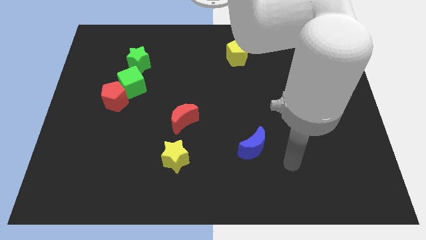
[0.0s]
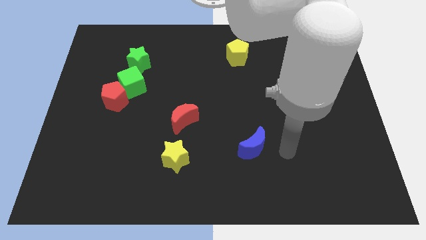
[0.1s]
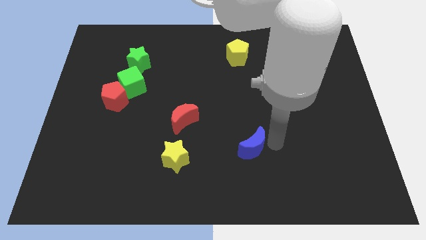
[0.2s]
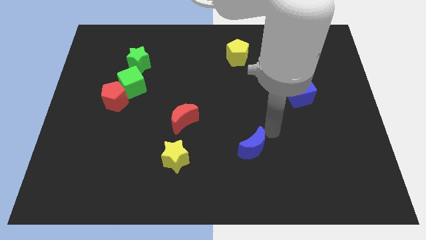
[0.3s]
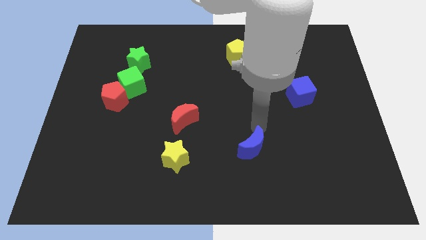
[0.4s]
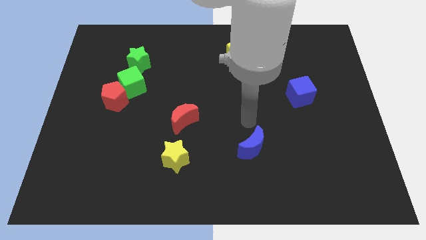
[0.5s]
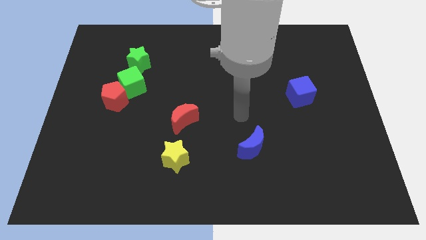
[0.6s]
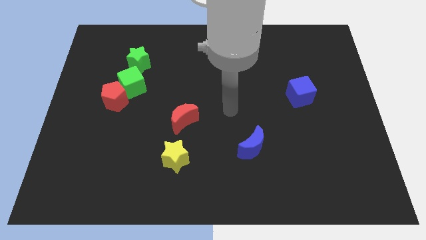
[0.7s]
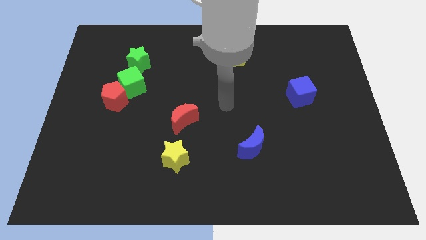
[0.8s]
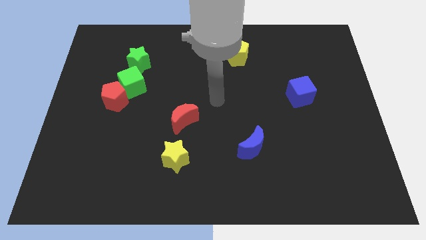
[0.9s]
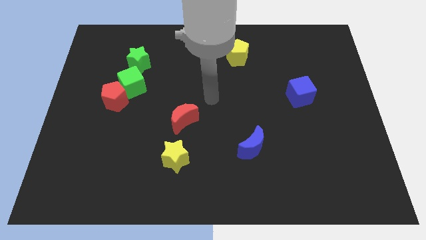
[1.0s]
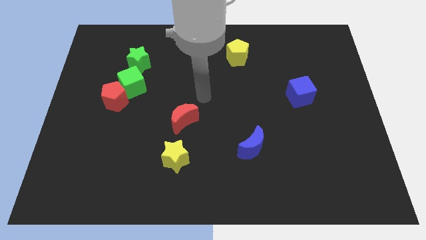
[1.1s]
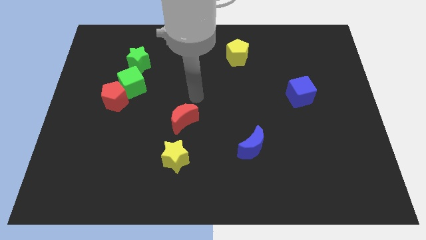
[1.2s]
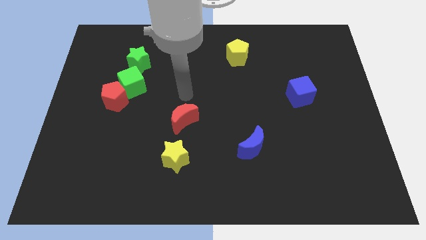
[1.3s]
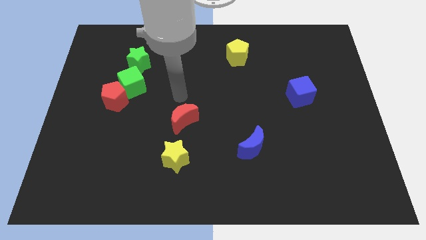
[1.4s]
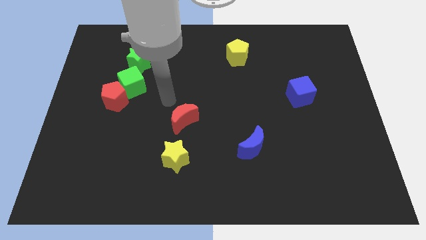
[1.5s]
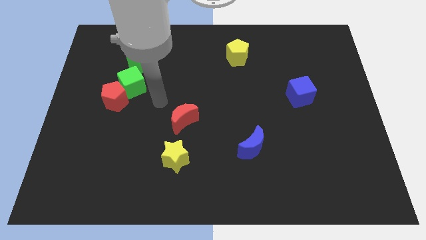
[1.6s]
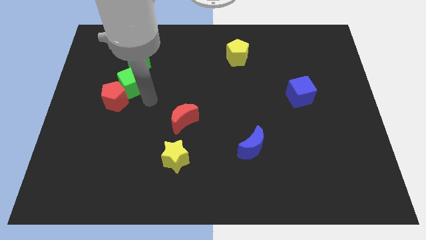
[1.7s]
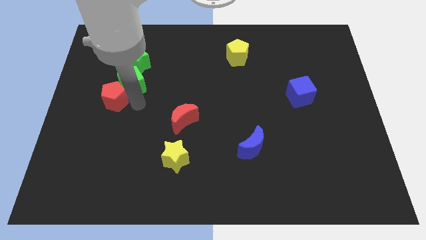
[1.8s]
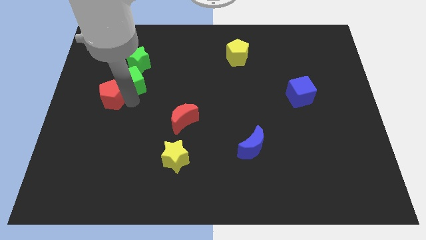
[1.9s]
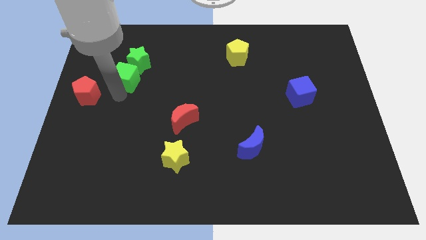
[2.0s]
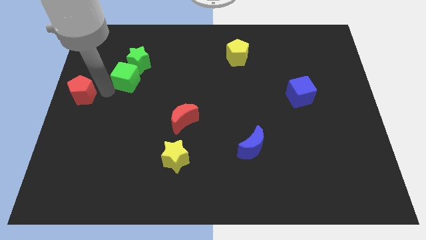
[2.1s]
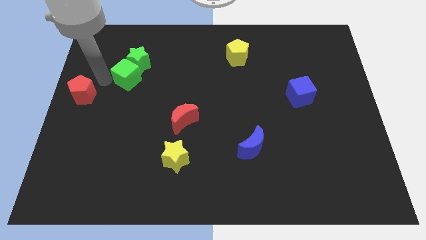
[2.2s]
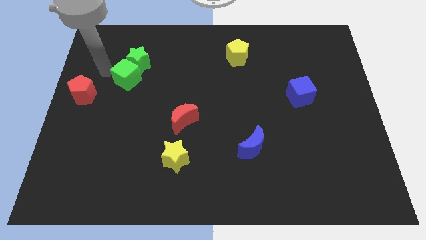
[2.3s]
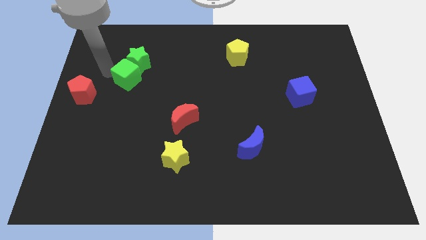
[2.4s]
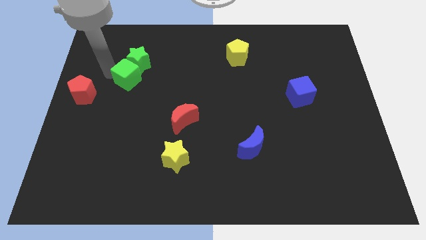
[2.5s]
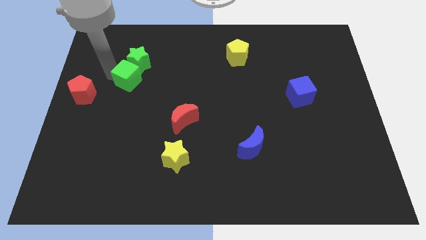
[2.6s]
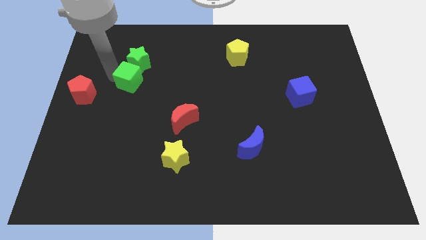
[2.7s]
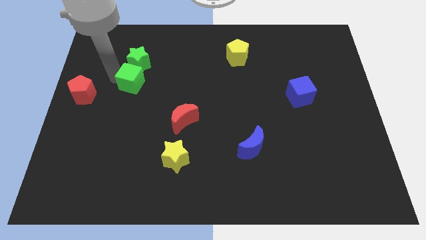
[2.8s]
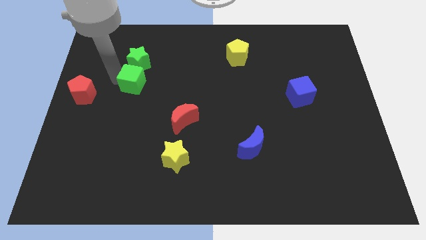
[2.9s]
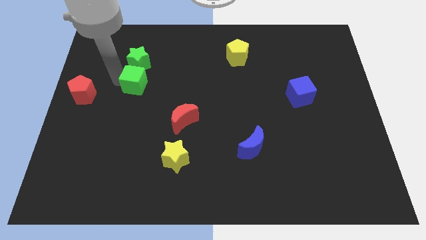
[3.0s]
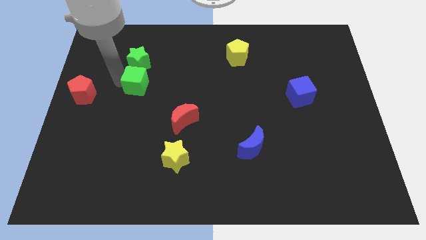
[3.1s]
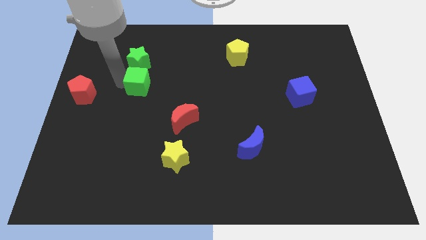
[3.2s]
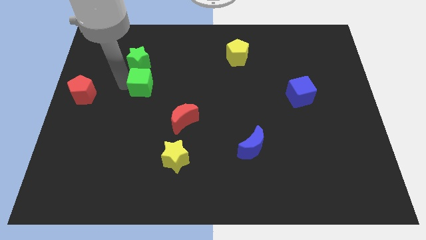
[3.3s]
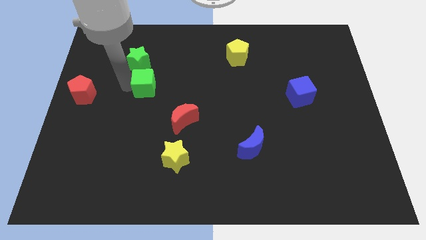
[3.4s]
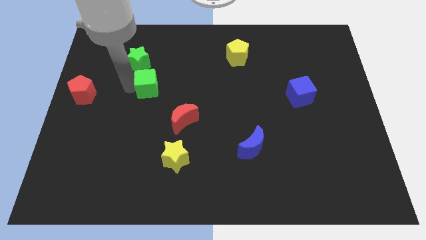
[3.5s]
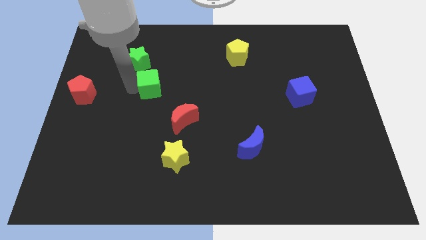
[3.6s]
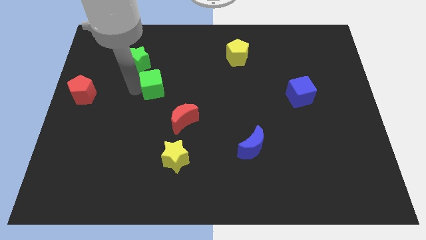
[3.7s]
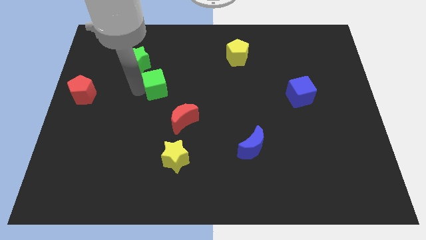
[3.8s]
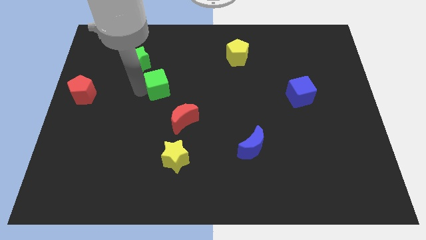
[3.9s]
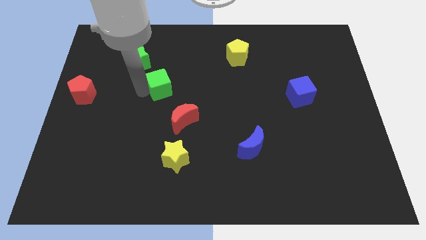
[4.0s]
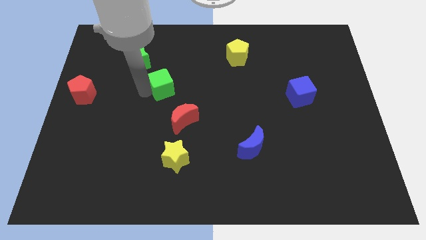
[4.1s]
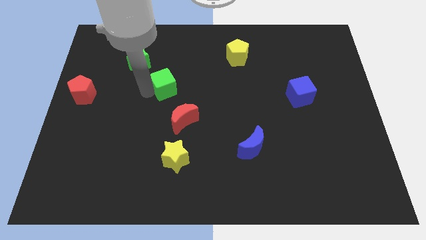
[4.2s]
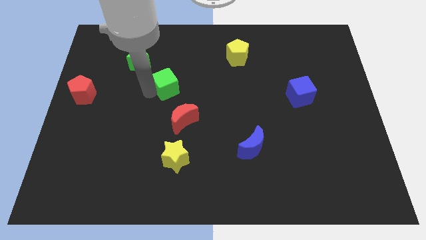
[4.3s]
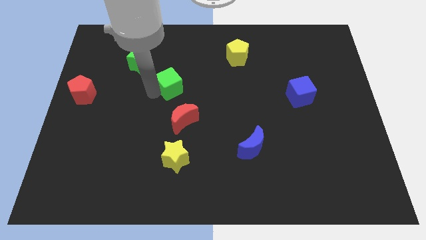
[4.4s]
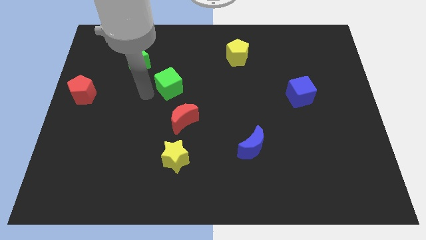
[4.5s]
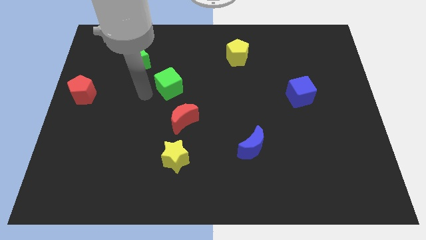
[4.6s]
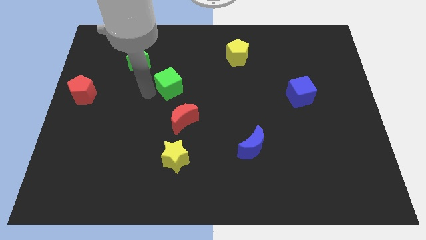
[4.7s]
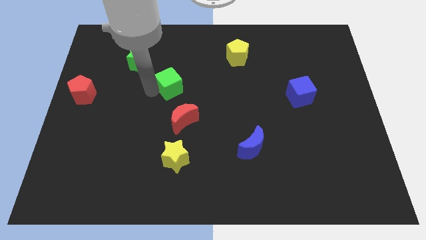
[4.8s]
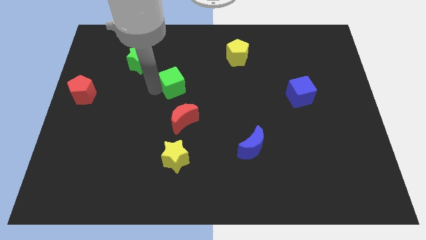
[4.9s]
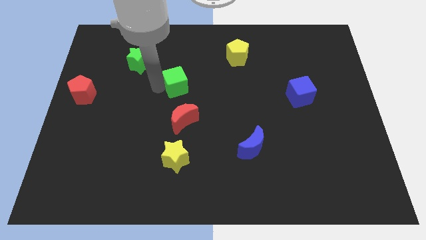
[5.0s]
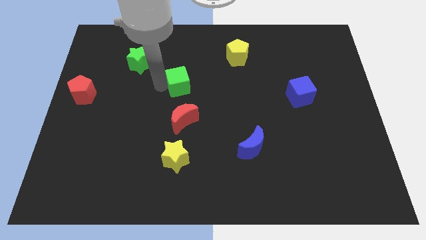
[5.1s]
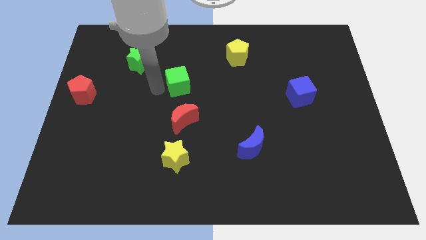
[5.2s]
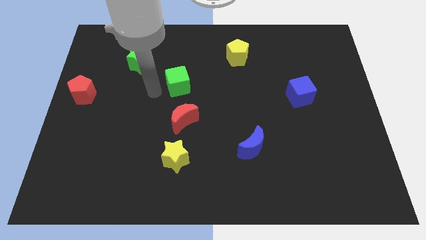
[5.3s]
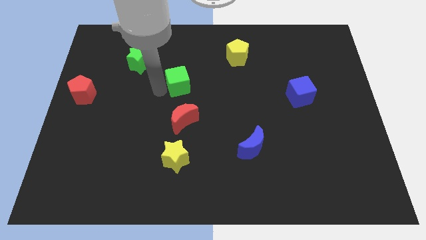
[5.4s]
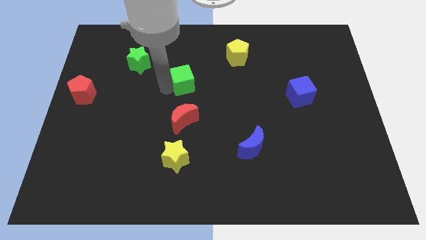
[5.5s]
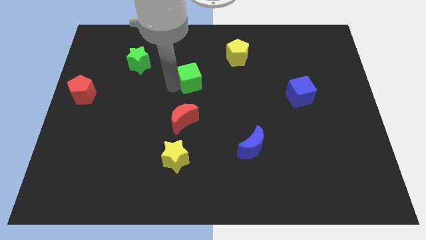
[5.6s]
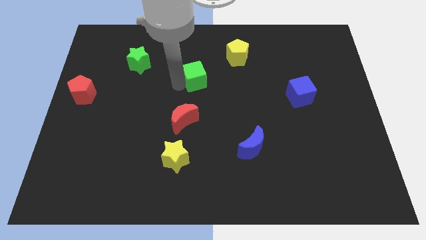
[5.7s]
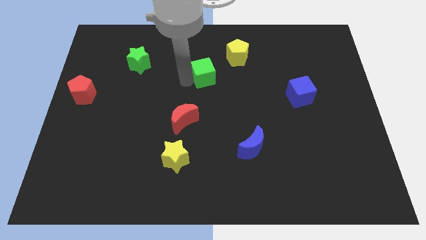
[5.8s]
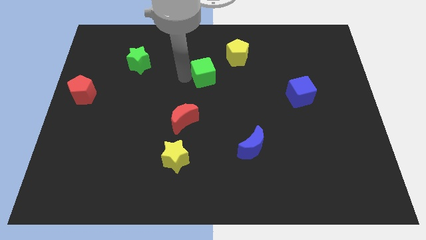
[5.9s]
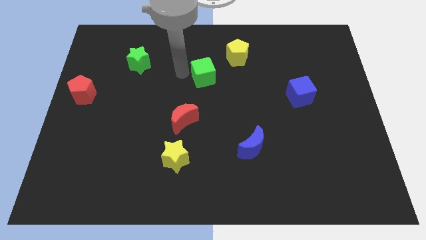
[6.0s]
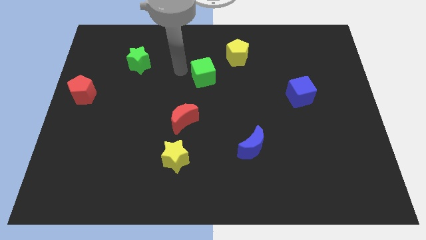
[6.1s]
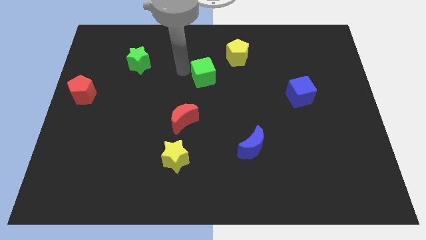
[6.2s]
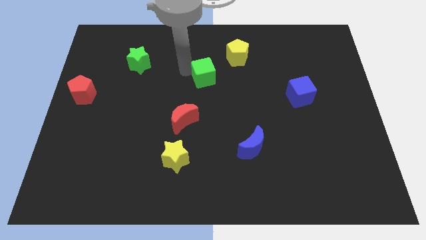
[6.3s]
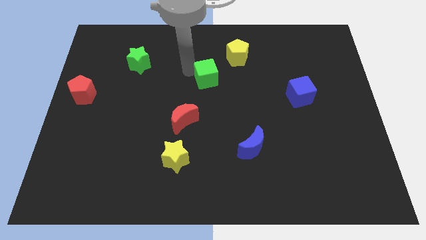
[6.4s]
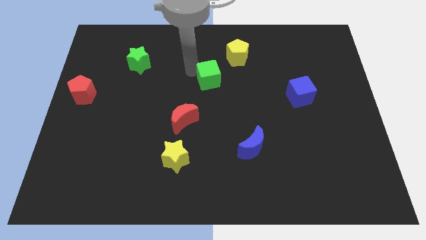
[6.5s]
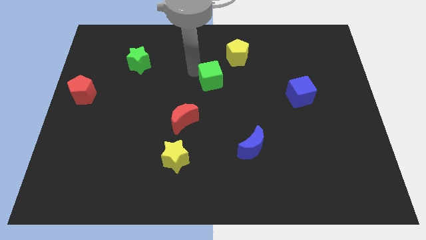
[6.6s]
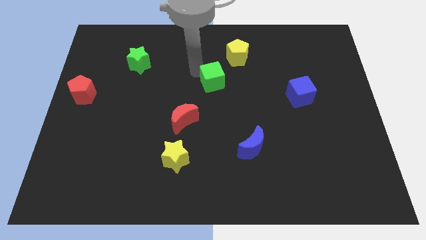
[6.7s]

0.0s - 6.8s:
slide the green cube right

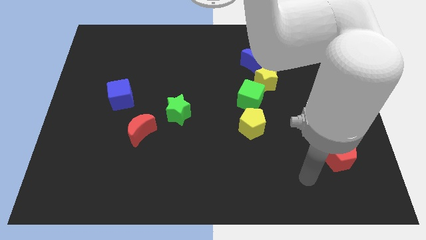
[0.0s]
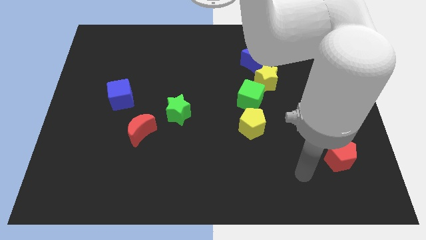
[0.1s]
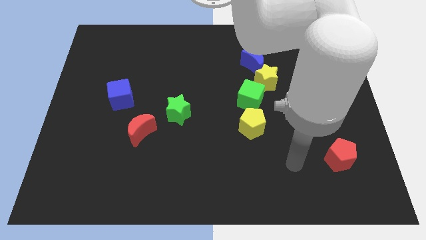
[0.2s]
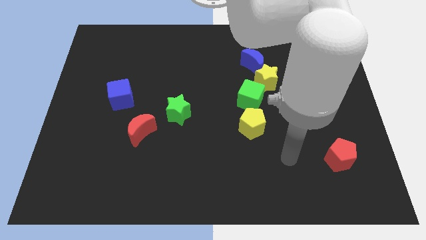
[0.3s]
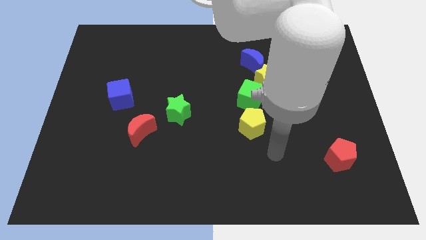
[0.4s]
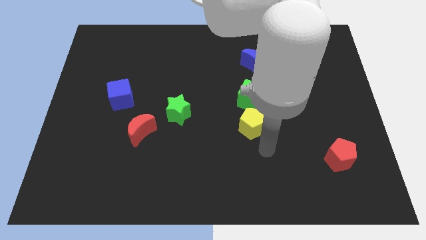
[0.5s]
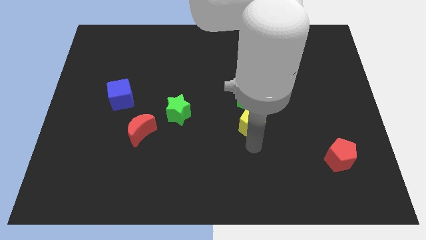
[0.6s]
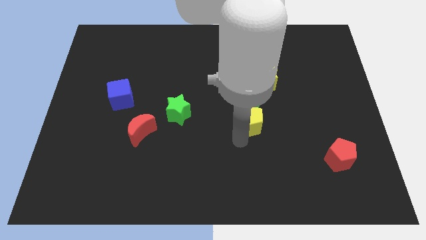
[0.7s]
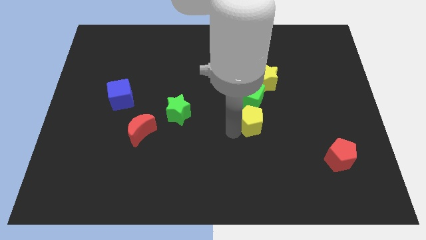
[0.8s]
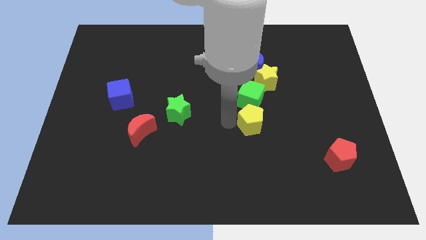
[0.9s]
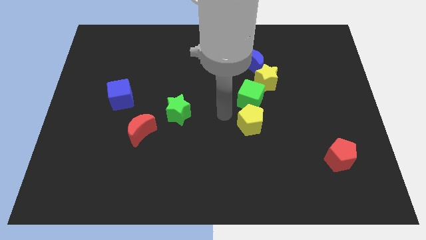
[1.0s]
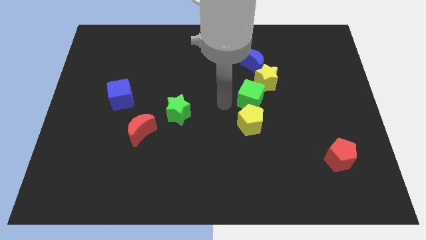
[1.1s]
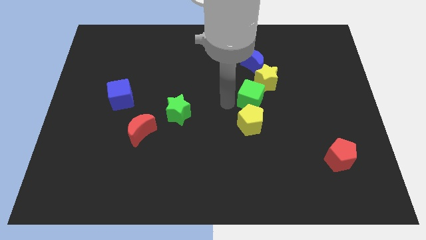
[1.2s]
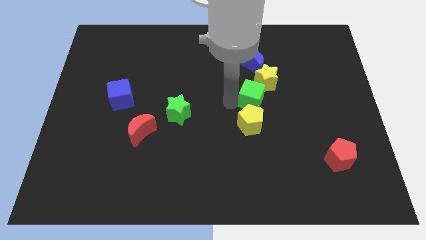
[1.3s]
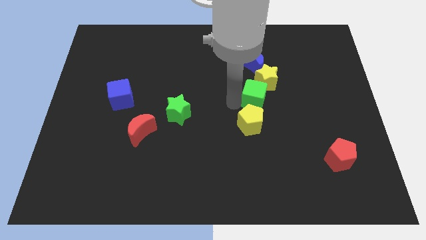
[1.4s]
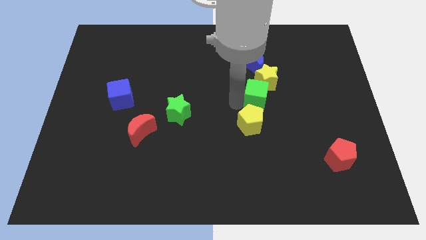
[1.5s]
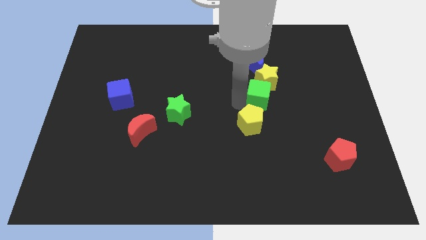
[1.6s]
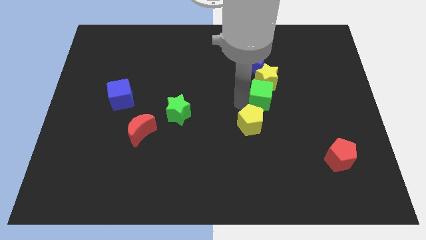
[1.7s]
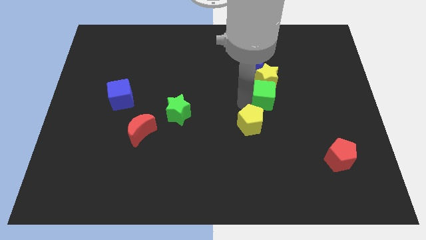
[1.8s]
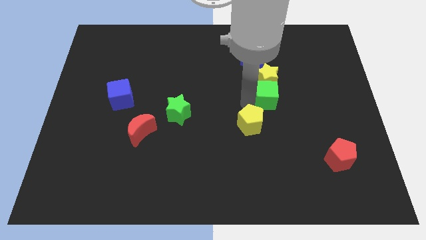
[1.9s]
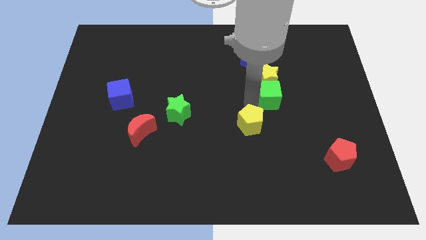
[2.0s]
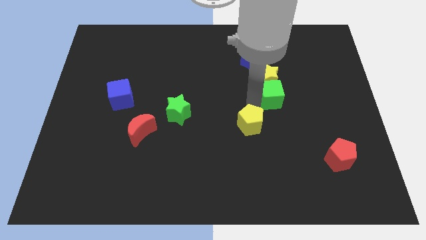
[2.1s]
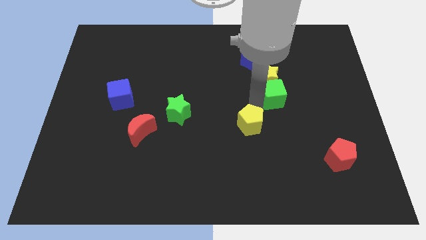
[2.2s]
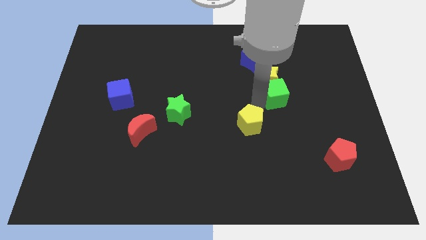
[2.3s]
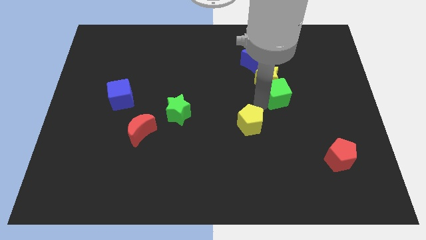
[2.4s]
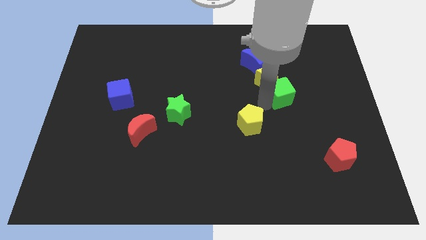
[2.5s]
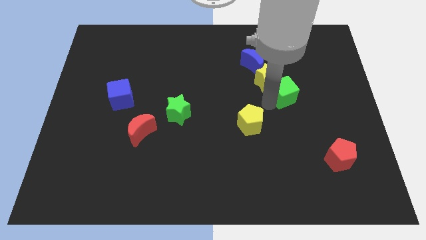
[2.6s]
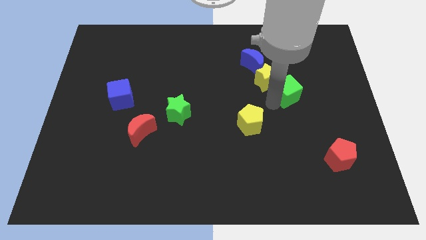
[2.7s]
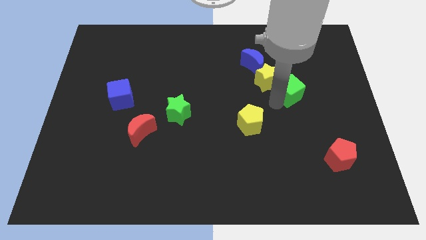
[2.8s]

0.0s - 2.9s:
slide the green cube a bit diagonally upwards and to the right
